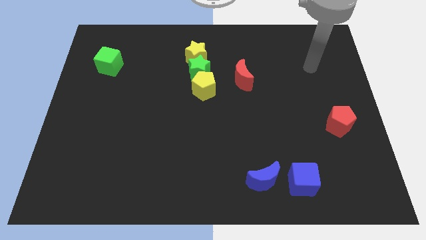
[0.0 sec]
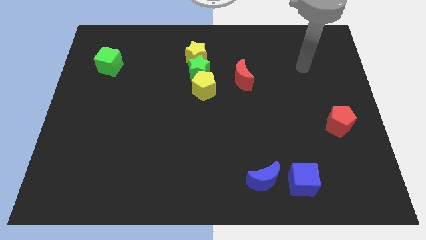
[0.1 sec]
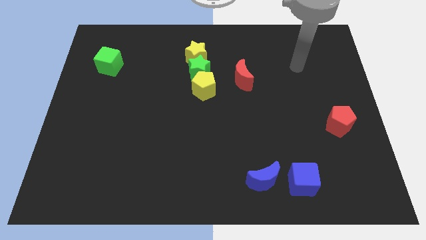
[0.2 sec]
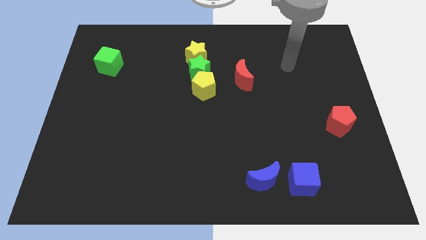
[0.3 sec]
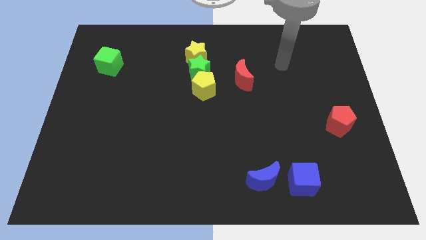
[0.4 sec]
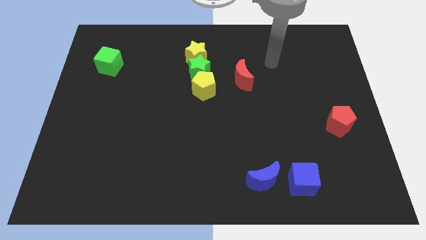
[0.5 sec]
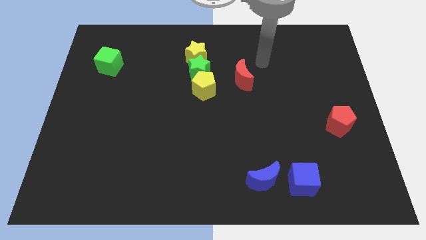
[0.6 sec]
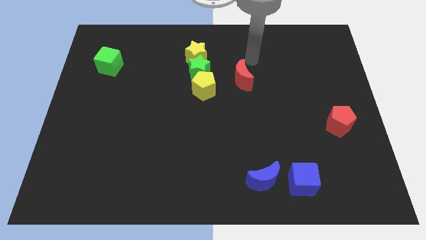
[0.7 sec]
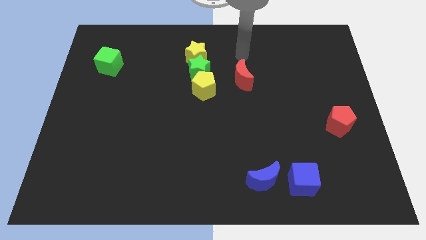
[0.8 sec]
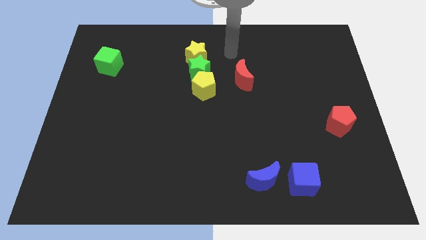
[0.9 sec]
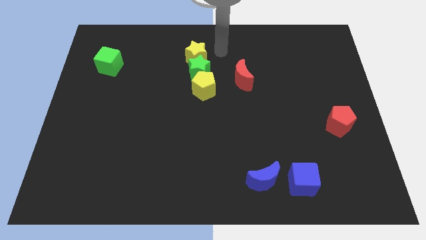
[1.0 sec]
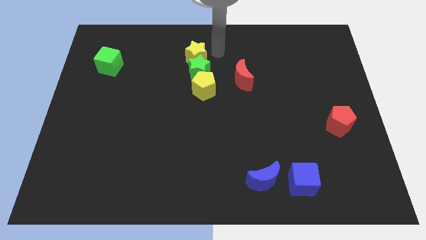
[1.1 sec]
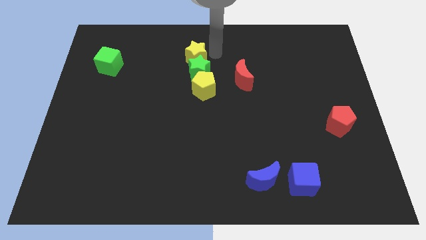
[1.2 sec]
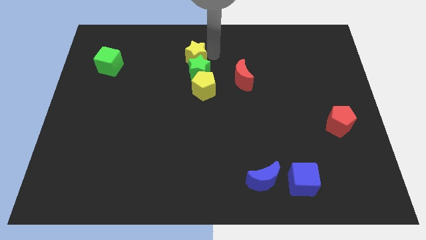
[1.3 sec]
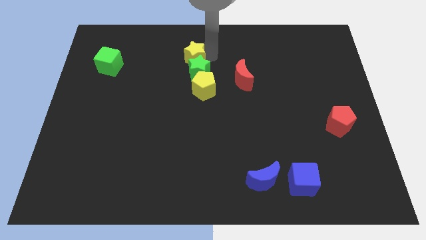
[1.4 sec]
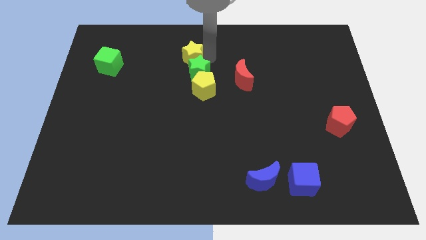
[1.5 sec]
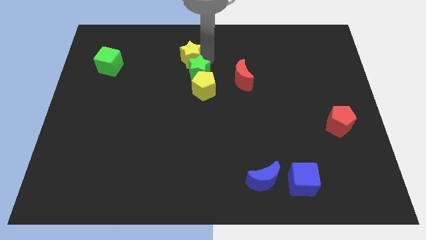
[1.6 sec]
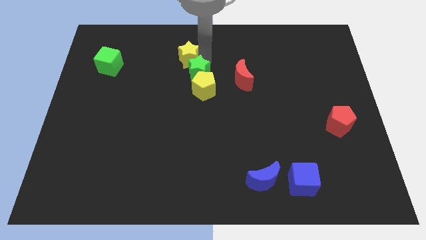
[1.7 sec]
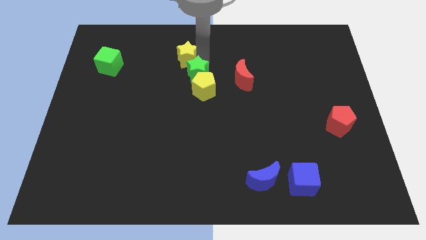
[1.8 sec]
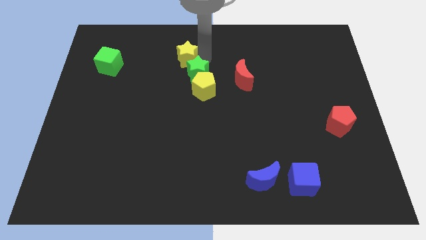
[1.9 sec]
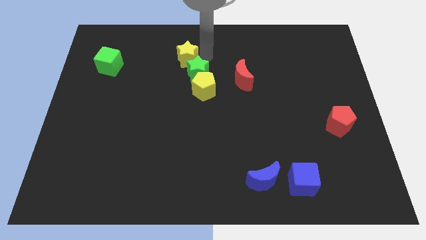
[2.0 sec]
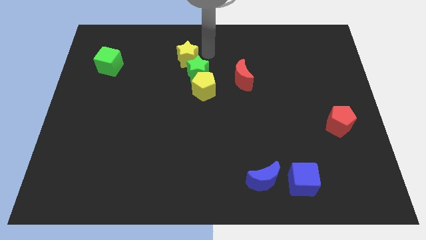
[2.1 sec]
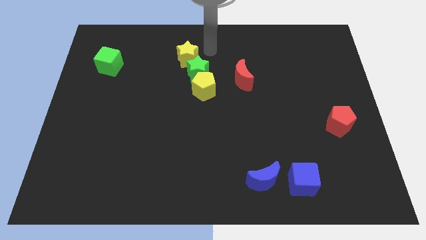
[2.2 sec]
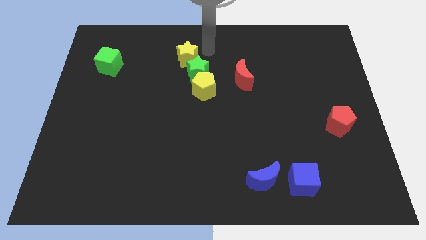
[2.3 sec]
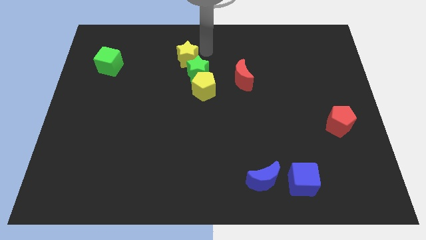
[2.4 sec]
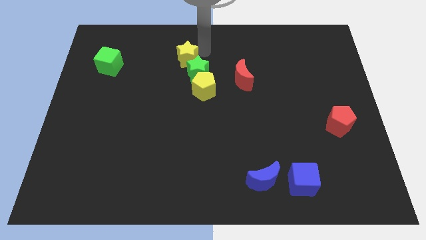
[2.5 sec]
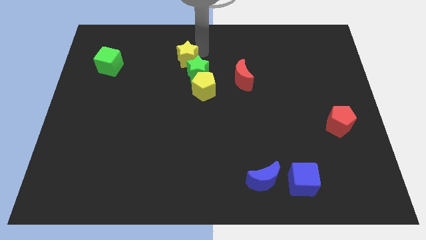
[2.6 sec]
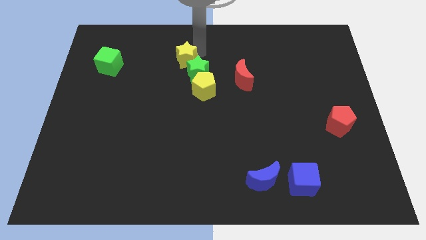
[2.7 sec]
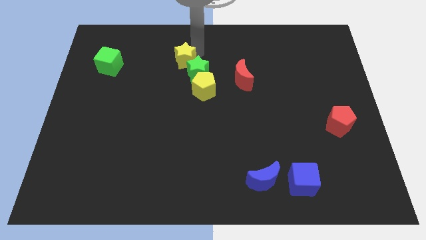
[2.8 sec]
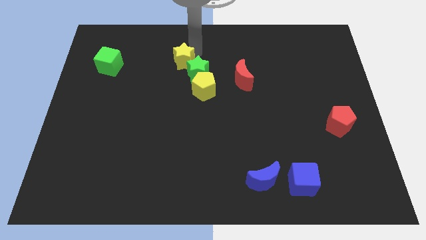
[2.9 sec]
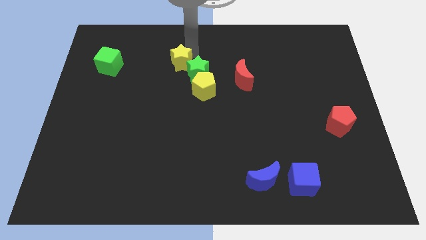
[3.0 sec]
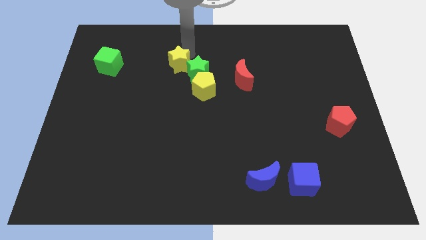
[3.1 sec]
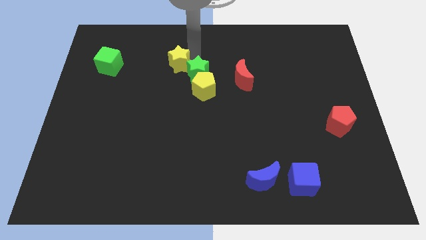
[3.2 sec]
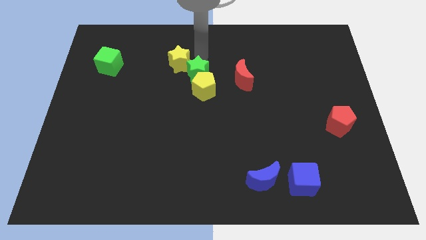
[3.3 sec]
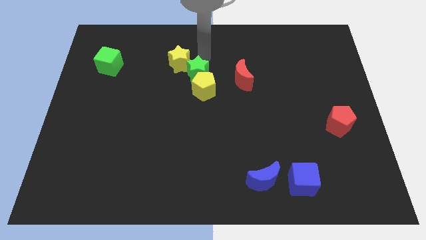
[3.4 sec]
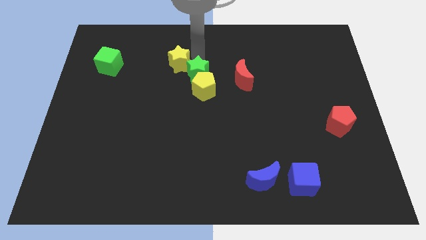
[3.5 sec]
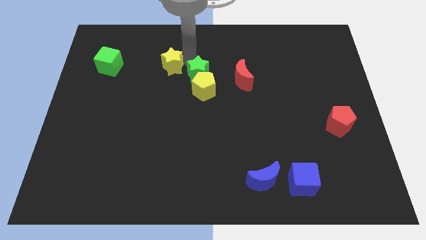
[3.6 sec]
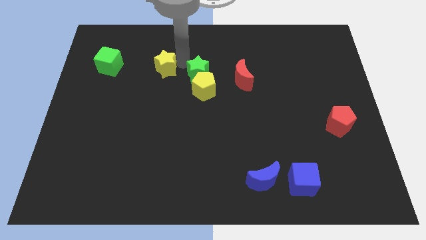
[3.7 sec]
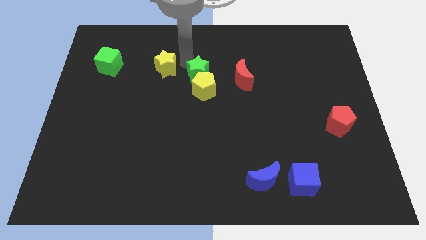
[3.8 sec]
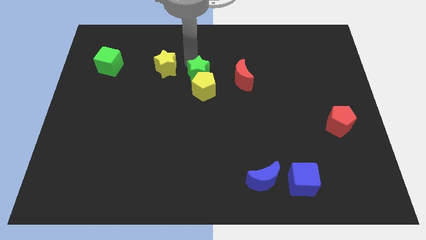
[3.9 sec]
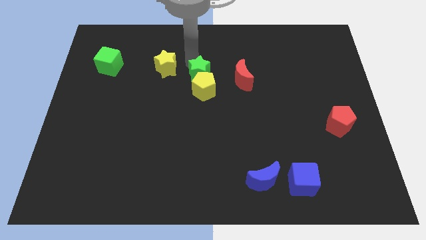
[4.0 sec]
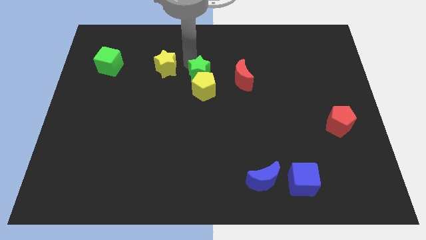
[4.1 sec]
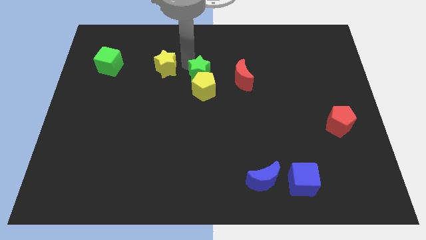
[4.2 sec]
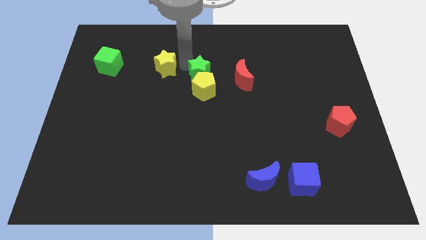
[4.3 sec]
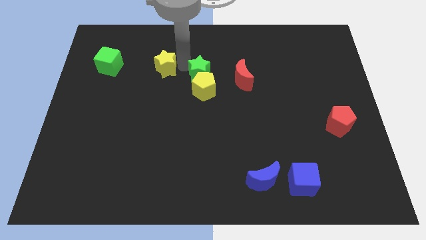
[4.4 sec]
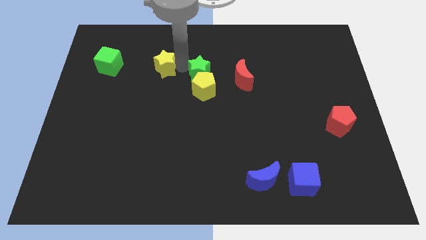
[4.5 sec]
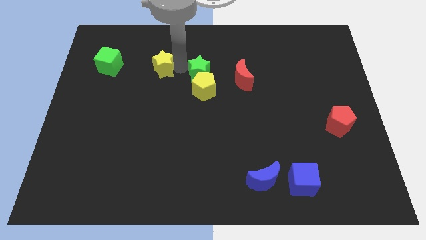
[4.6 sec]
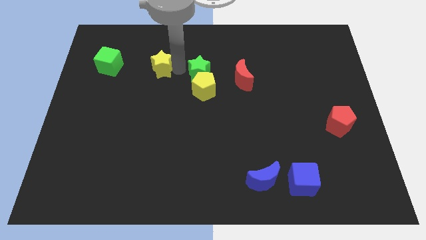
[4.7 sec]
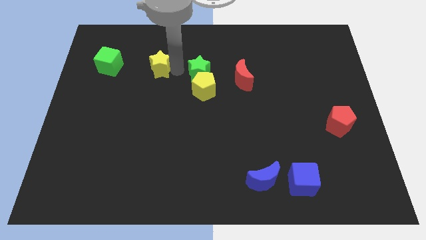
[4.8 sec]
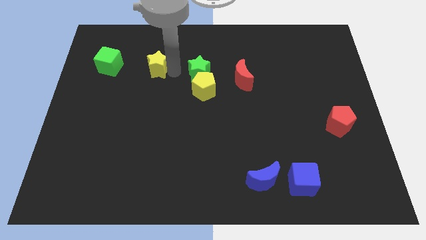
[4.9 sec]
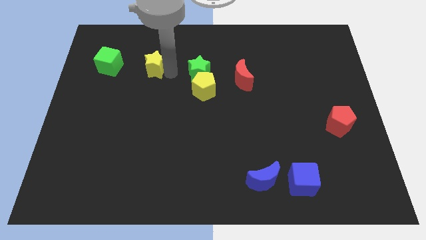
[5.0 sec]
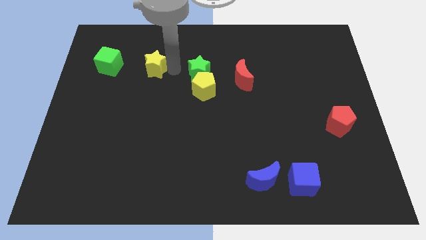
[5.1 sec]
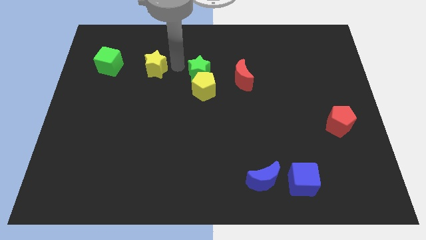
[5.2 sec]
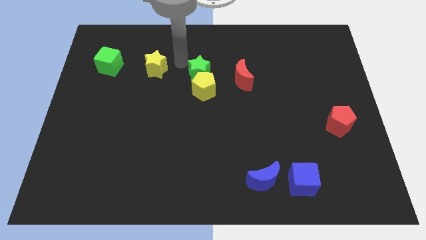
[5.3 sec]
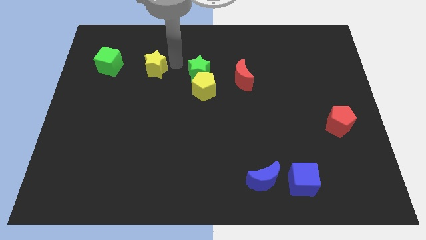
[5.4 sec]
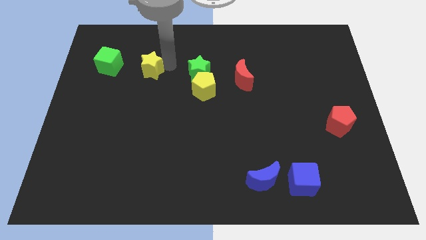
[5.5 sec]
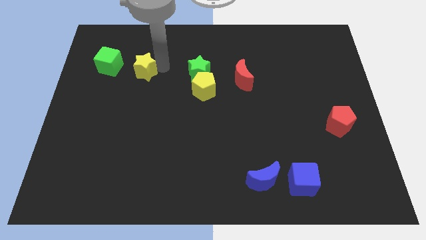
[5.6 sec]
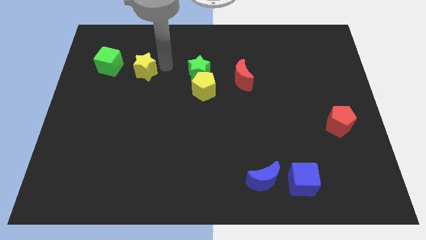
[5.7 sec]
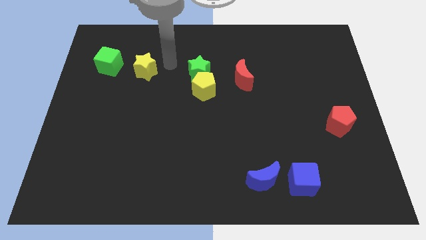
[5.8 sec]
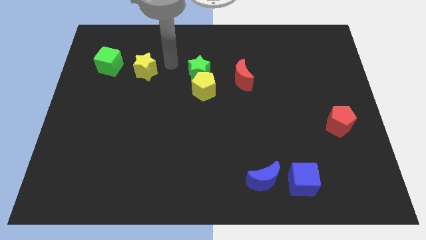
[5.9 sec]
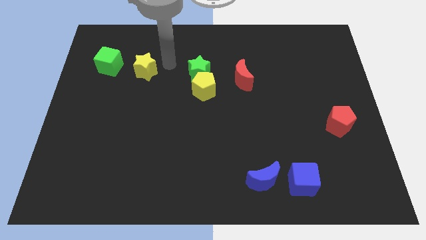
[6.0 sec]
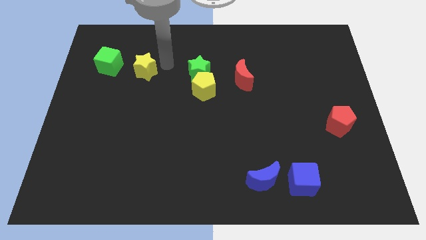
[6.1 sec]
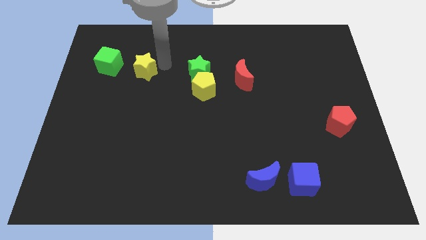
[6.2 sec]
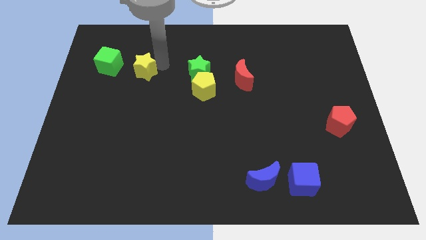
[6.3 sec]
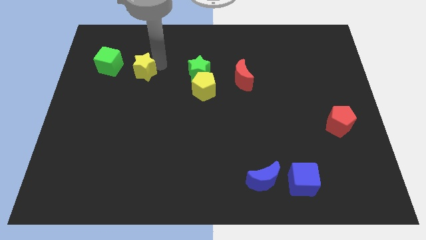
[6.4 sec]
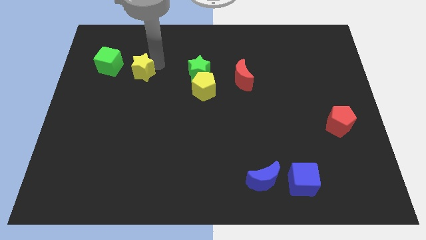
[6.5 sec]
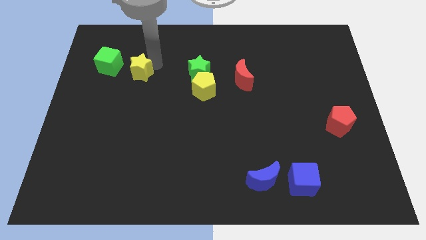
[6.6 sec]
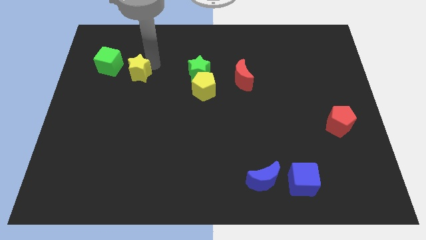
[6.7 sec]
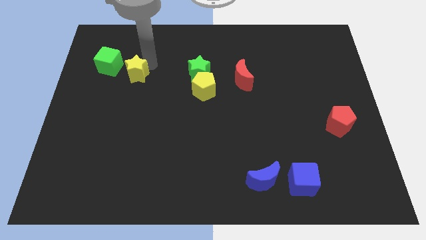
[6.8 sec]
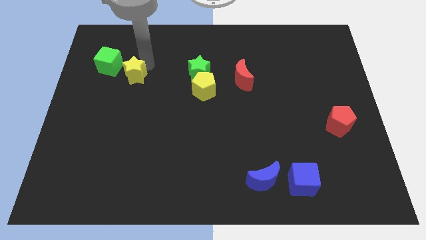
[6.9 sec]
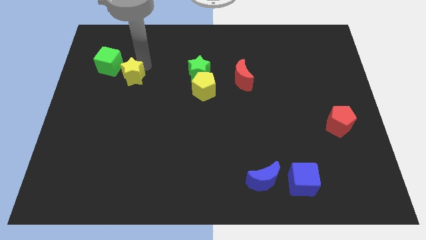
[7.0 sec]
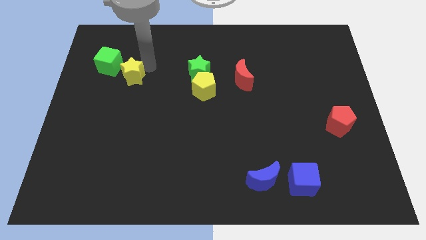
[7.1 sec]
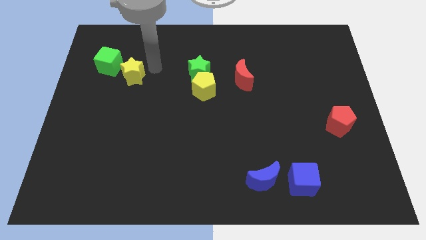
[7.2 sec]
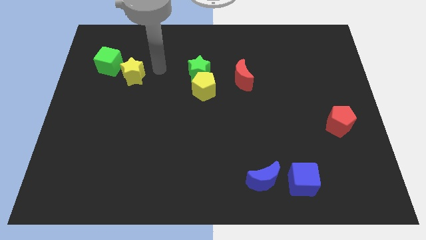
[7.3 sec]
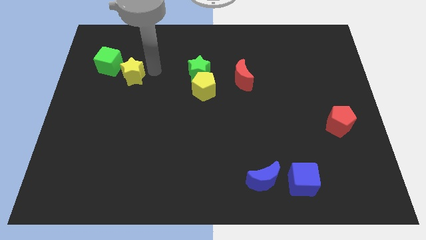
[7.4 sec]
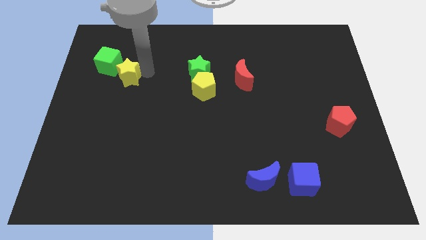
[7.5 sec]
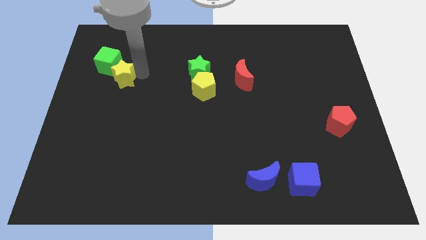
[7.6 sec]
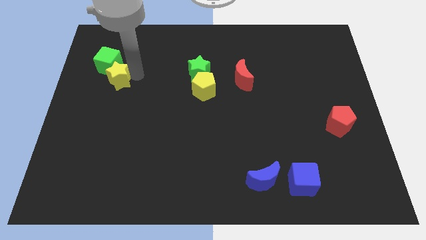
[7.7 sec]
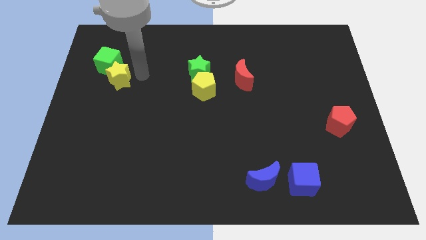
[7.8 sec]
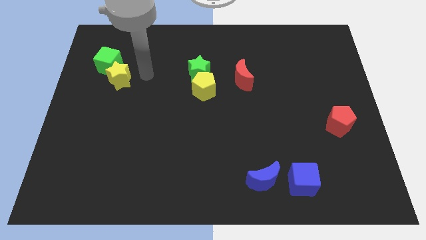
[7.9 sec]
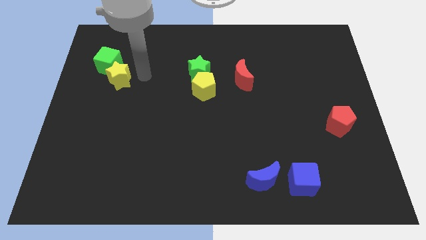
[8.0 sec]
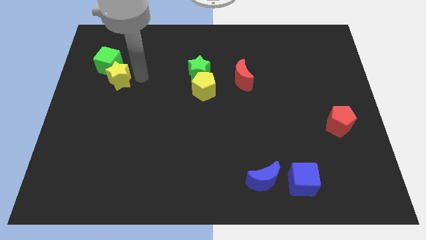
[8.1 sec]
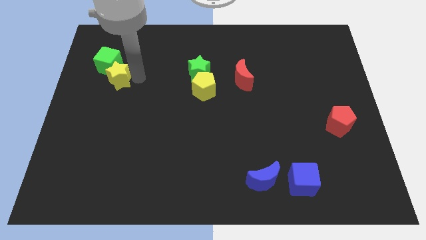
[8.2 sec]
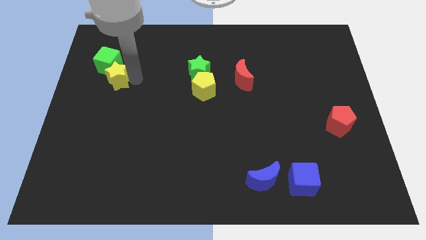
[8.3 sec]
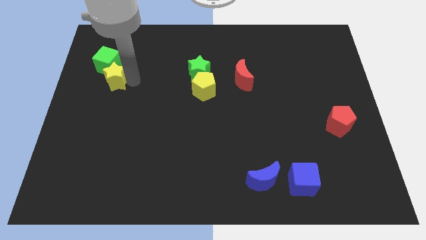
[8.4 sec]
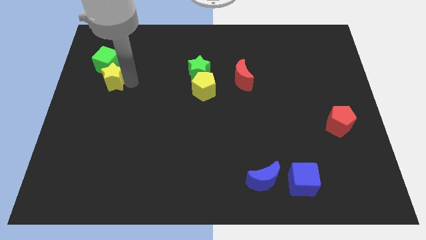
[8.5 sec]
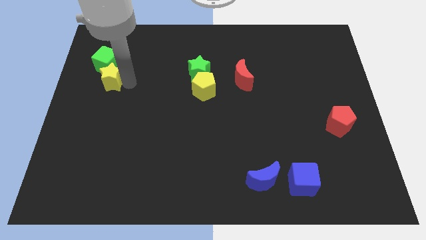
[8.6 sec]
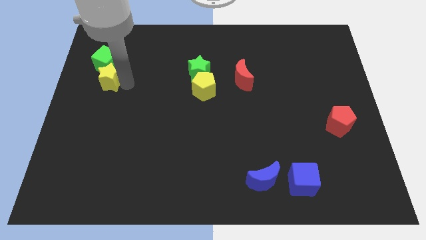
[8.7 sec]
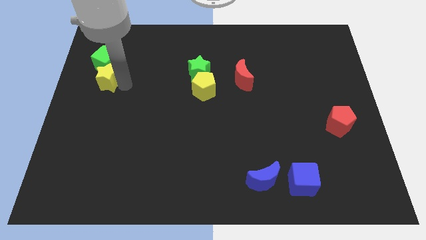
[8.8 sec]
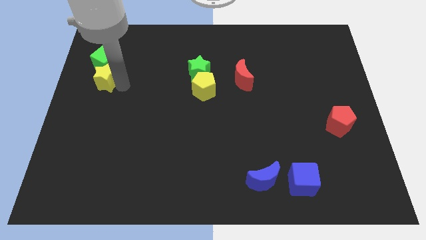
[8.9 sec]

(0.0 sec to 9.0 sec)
move the yellow star to the left side of the board
